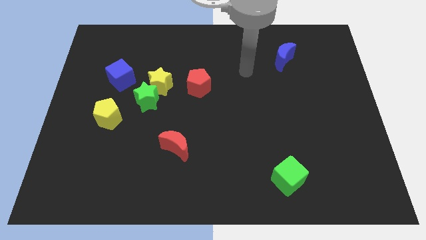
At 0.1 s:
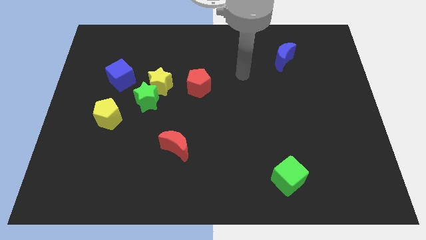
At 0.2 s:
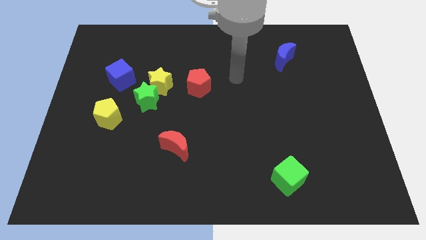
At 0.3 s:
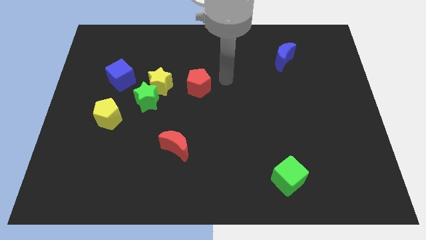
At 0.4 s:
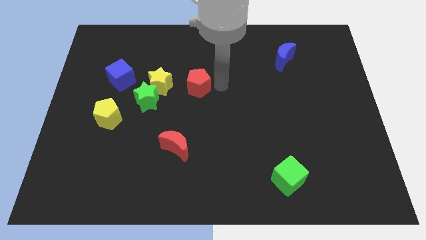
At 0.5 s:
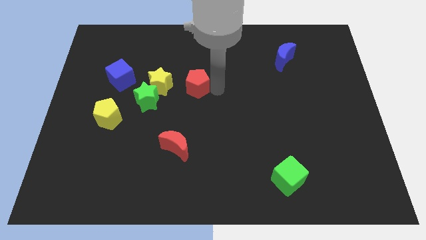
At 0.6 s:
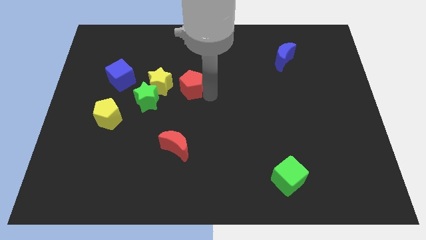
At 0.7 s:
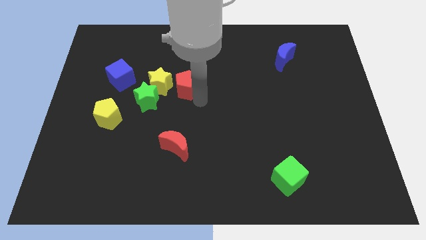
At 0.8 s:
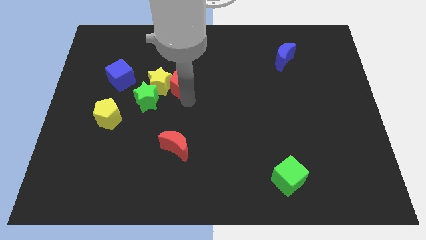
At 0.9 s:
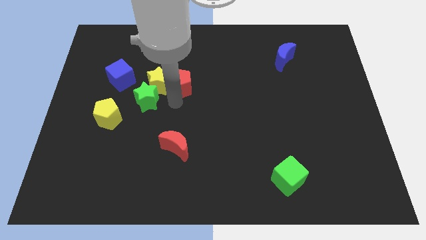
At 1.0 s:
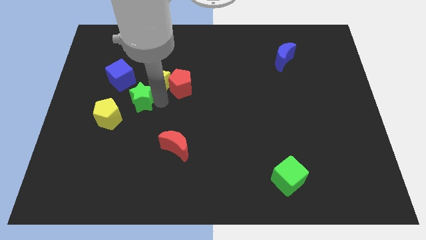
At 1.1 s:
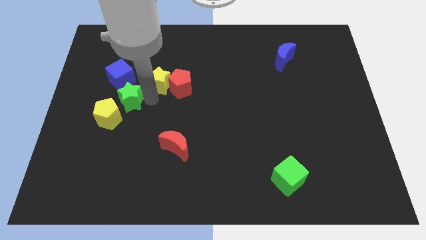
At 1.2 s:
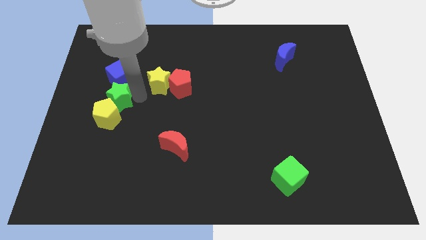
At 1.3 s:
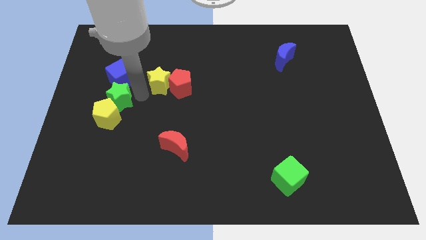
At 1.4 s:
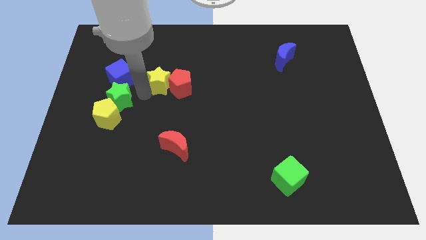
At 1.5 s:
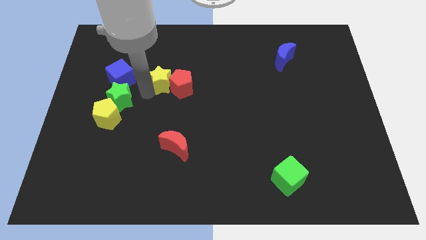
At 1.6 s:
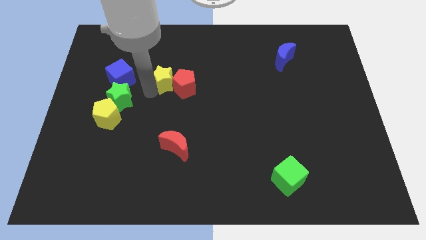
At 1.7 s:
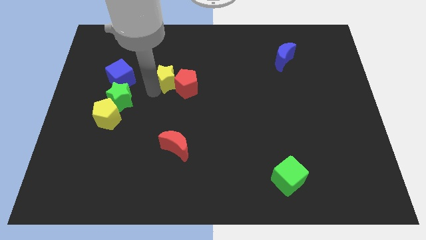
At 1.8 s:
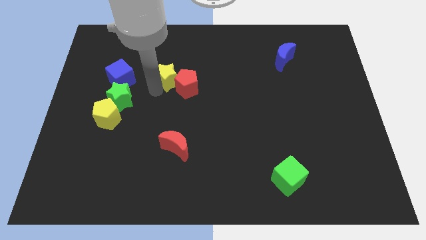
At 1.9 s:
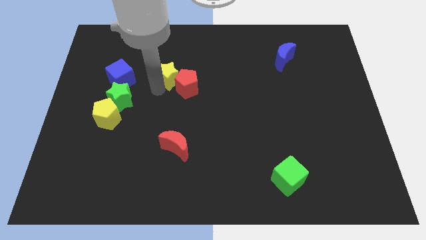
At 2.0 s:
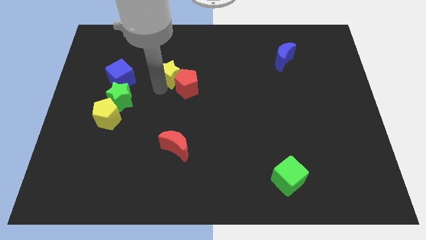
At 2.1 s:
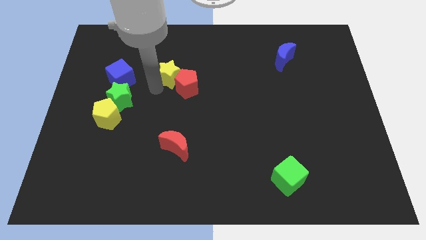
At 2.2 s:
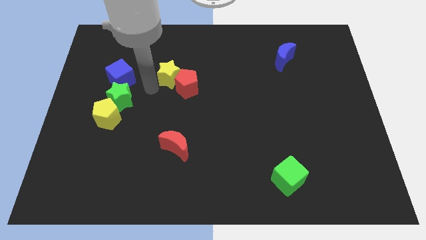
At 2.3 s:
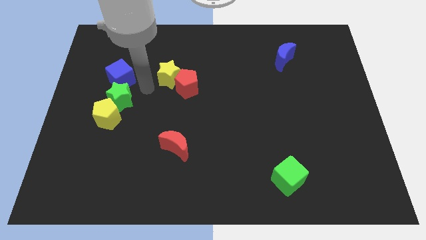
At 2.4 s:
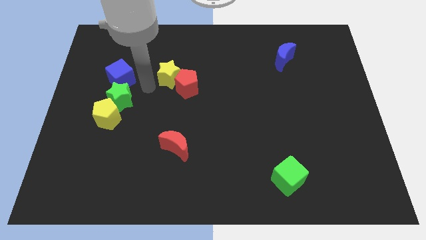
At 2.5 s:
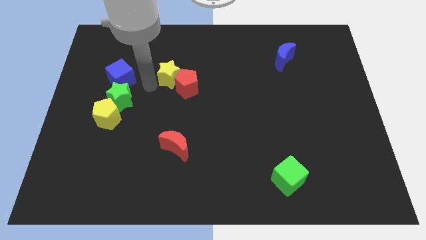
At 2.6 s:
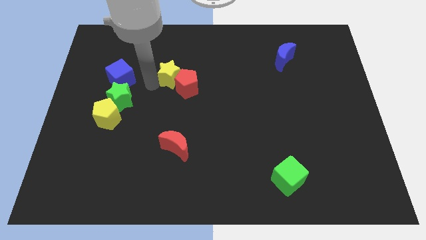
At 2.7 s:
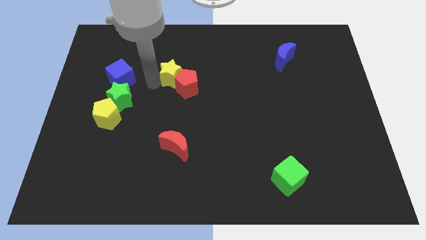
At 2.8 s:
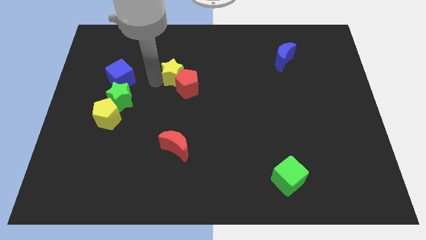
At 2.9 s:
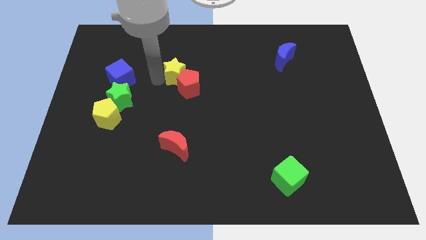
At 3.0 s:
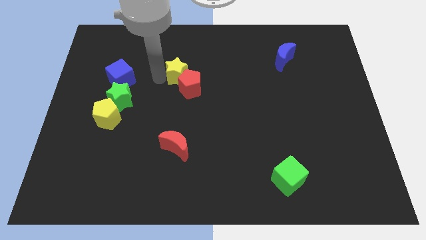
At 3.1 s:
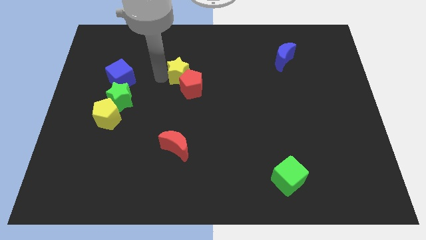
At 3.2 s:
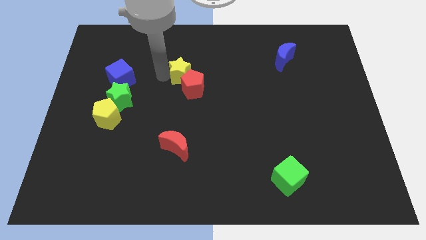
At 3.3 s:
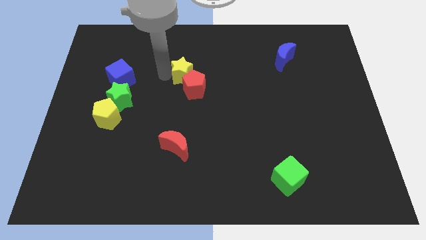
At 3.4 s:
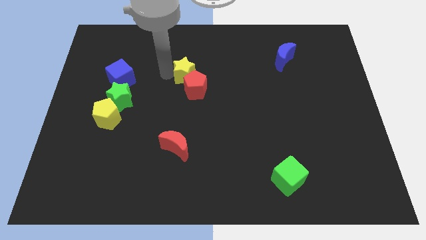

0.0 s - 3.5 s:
move the yellow star away from the clump

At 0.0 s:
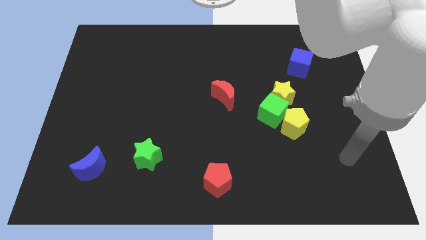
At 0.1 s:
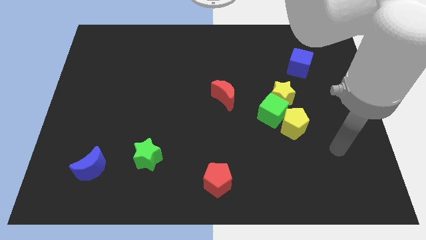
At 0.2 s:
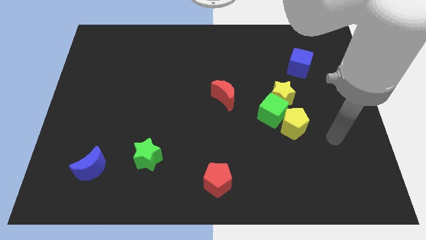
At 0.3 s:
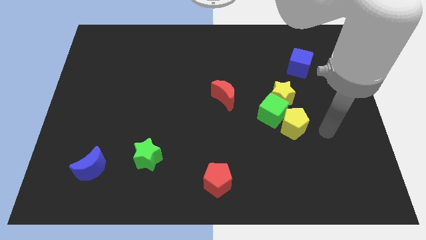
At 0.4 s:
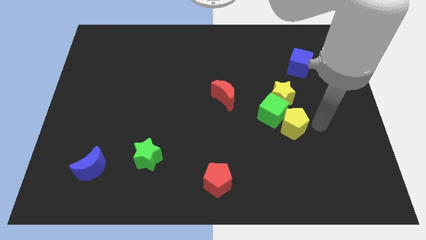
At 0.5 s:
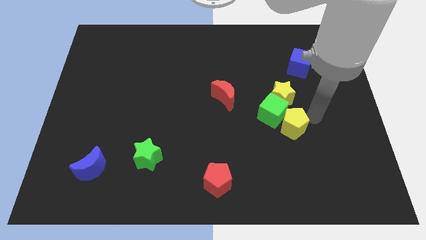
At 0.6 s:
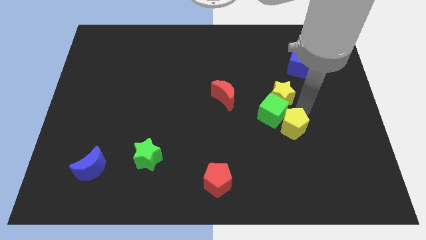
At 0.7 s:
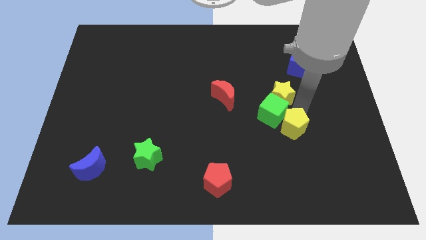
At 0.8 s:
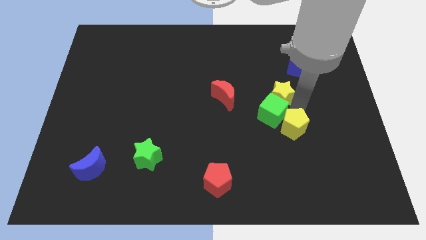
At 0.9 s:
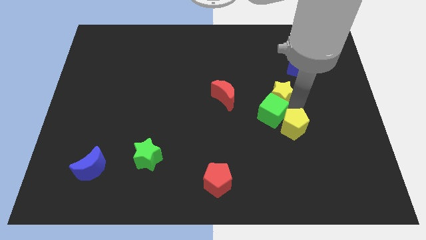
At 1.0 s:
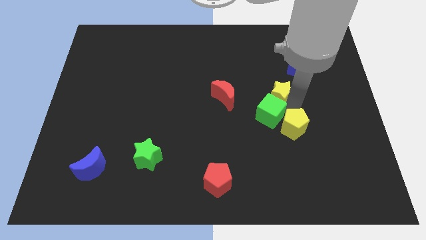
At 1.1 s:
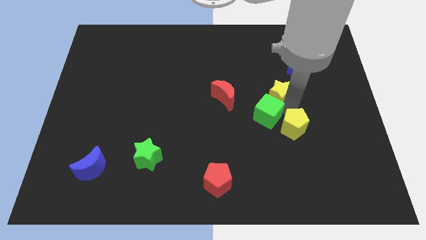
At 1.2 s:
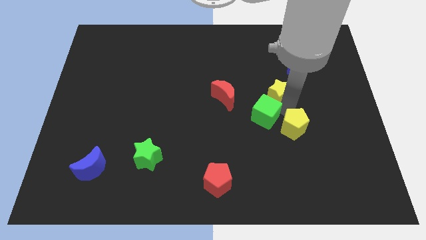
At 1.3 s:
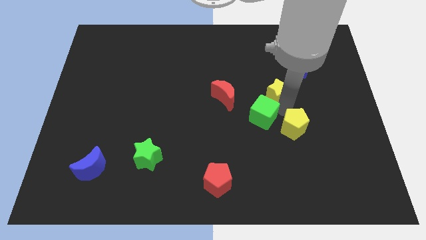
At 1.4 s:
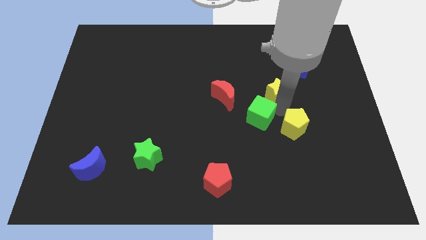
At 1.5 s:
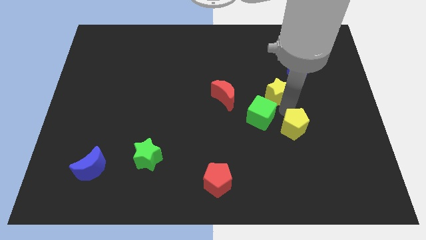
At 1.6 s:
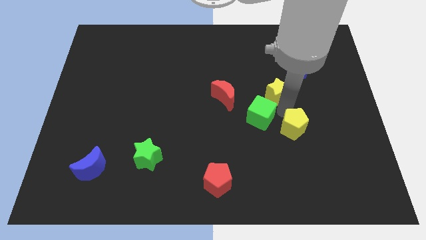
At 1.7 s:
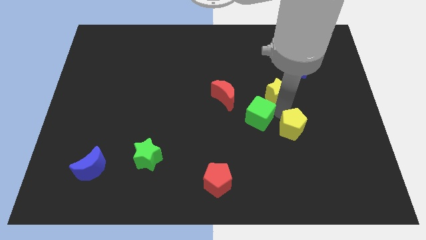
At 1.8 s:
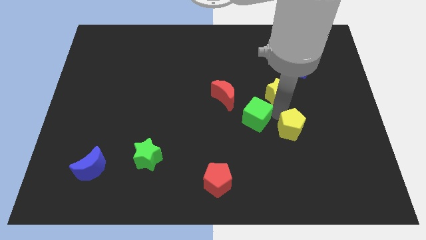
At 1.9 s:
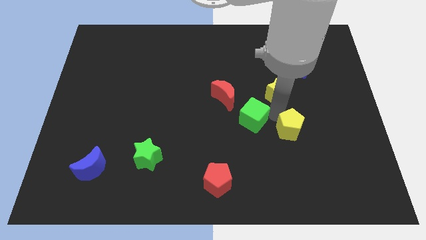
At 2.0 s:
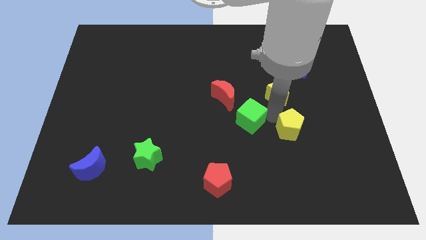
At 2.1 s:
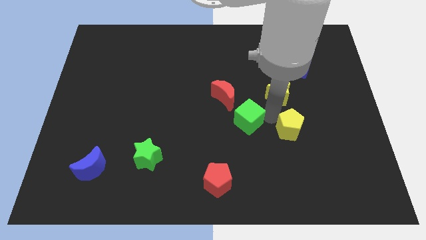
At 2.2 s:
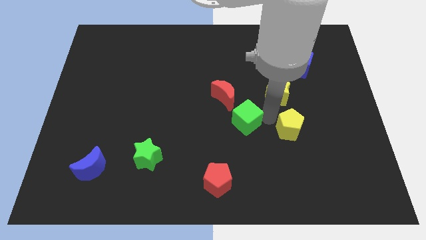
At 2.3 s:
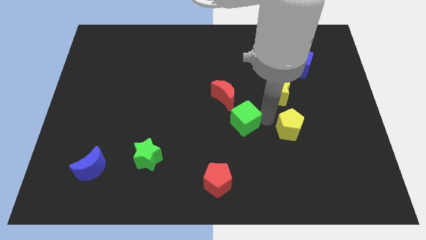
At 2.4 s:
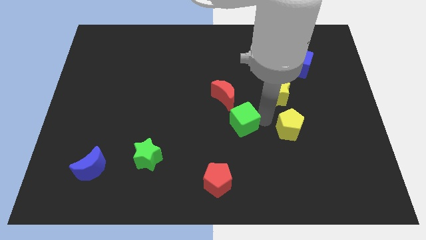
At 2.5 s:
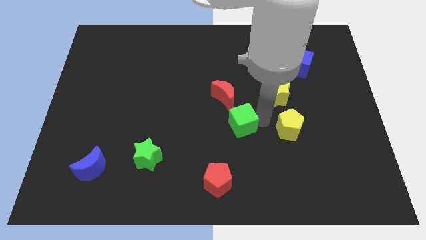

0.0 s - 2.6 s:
move the green cube away from the yellow star and yellow pentagon

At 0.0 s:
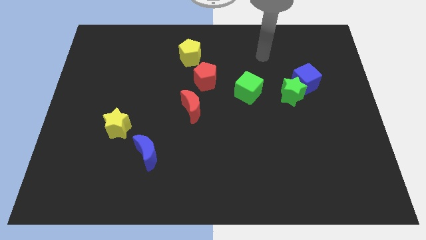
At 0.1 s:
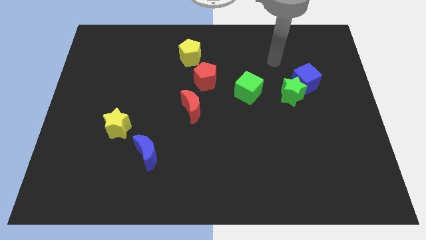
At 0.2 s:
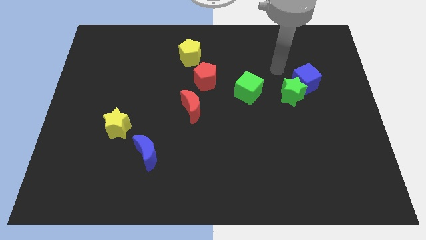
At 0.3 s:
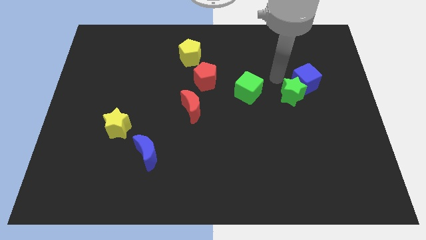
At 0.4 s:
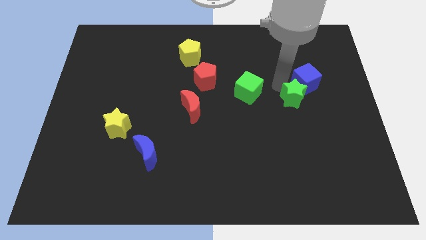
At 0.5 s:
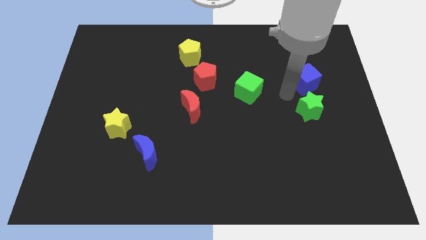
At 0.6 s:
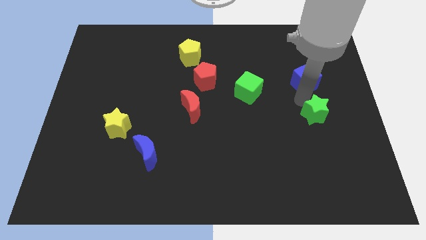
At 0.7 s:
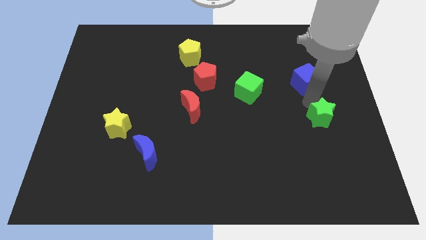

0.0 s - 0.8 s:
move the blue cube away from the green star

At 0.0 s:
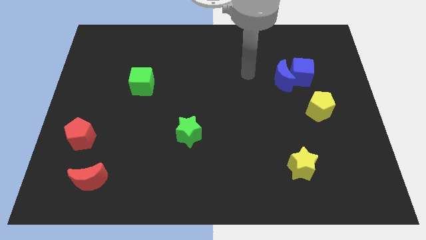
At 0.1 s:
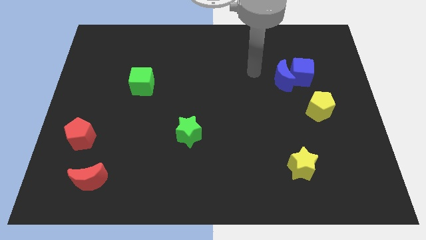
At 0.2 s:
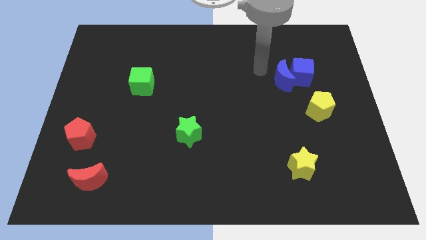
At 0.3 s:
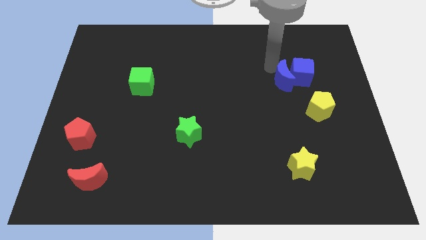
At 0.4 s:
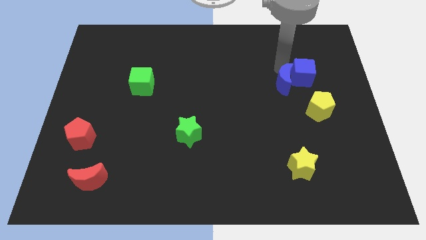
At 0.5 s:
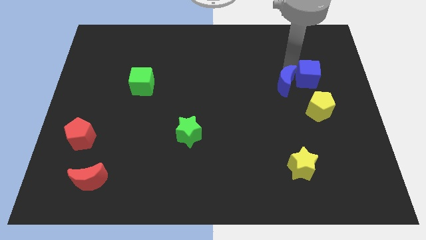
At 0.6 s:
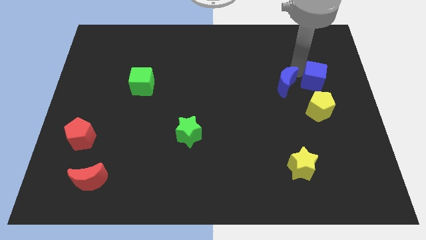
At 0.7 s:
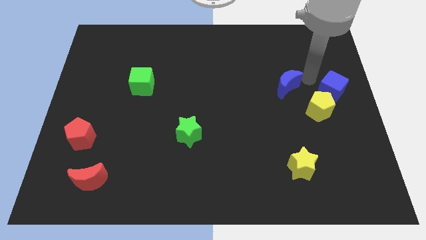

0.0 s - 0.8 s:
separate the blue moon from the blue cube

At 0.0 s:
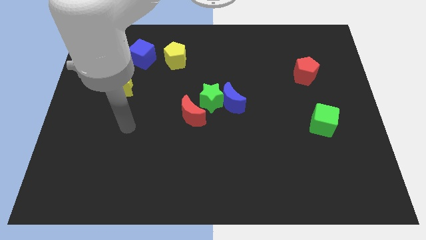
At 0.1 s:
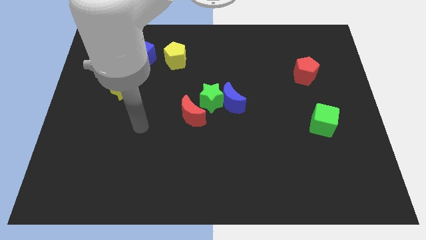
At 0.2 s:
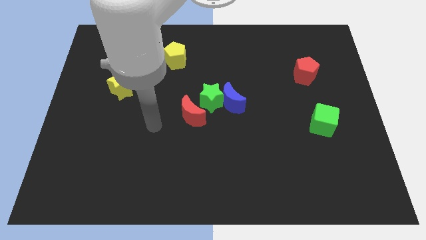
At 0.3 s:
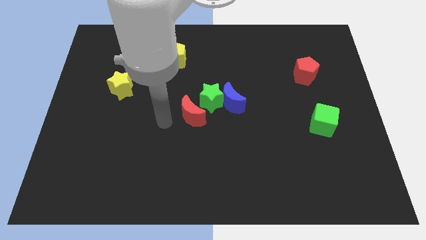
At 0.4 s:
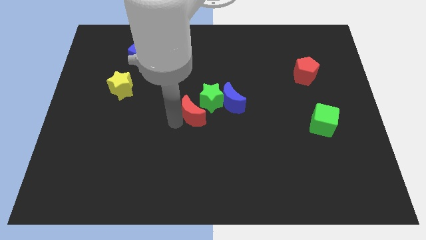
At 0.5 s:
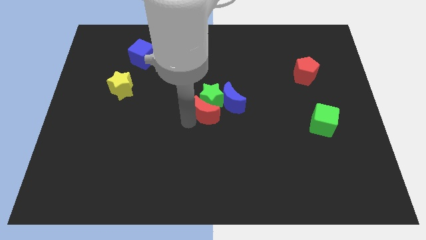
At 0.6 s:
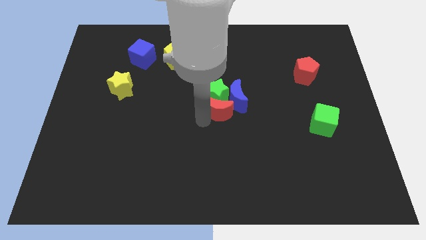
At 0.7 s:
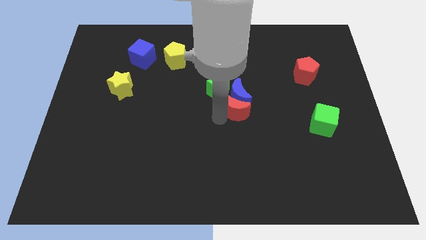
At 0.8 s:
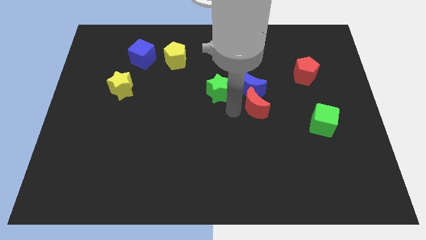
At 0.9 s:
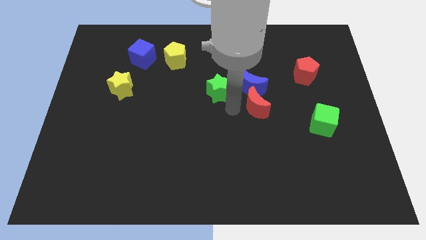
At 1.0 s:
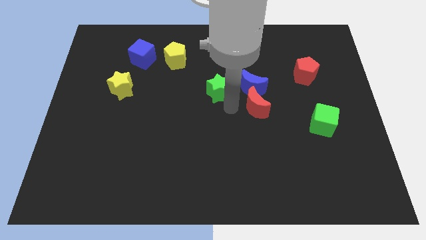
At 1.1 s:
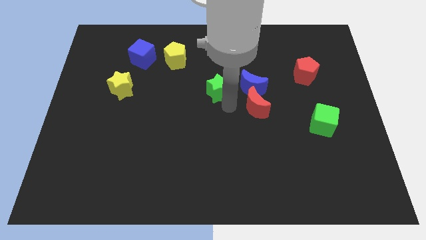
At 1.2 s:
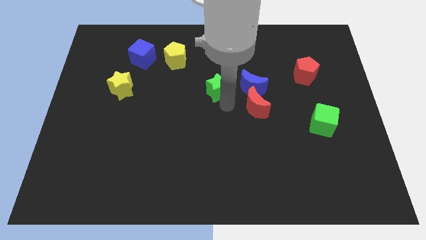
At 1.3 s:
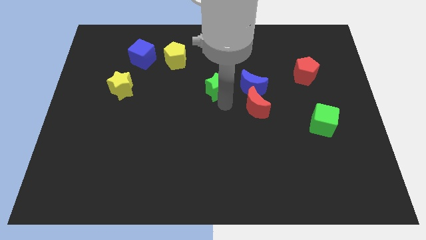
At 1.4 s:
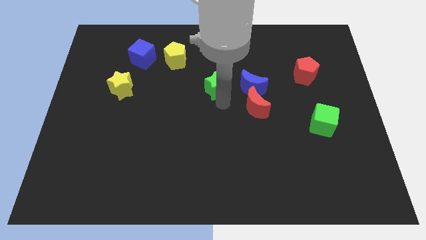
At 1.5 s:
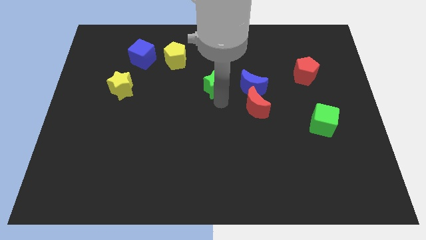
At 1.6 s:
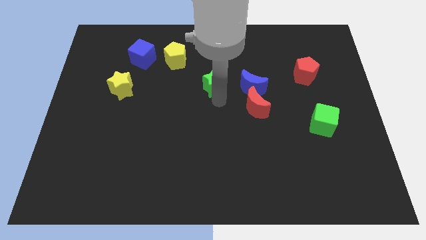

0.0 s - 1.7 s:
move the green star away from the blue moon and red moon

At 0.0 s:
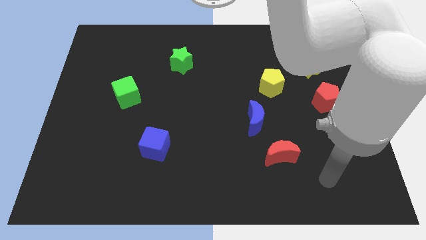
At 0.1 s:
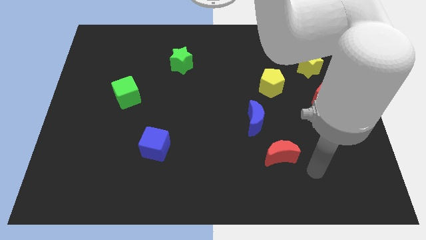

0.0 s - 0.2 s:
separate the red moon from the blue moon
